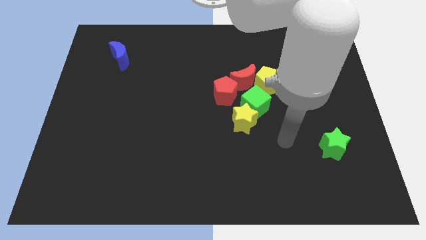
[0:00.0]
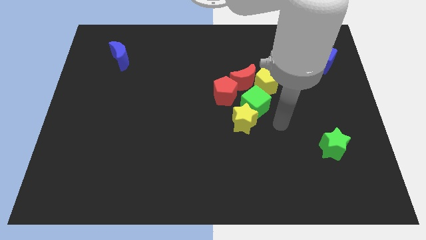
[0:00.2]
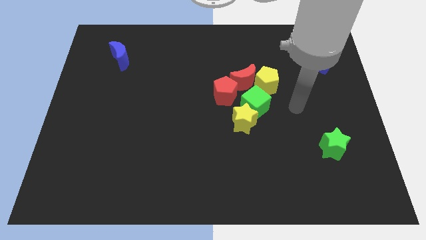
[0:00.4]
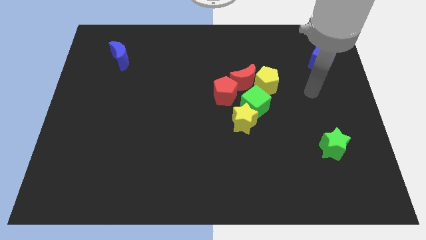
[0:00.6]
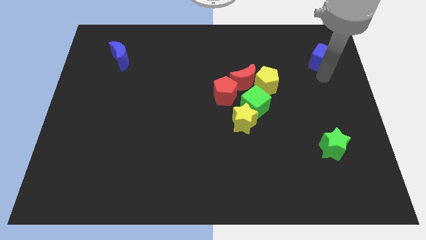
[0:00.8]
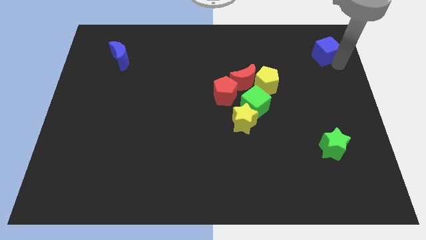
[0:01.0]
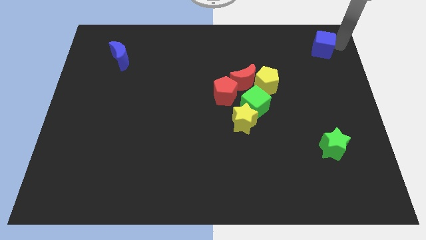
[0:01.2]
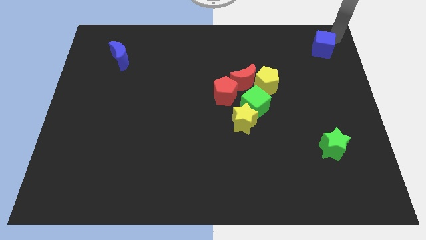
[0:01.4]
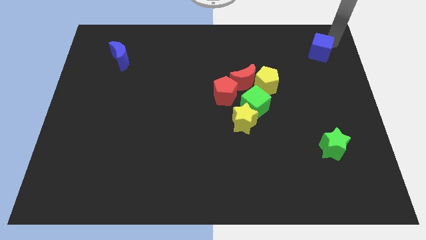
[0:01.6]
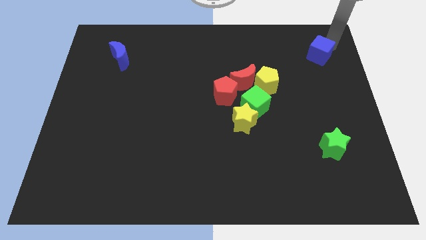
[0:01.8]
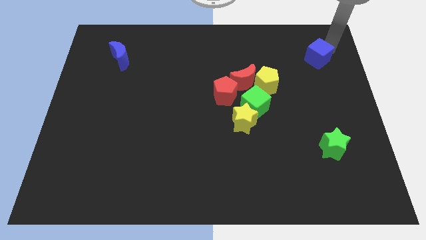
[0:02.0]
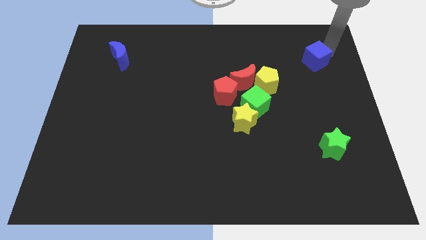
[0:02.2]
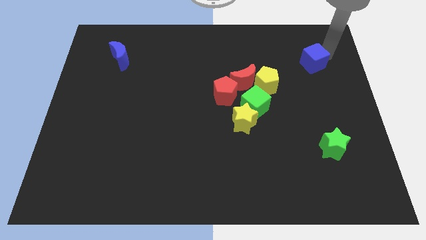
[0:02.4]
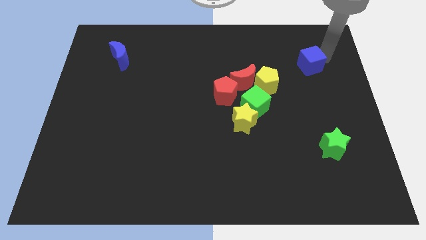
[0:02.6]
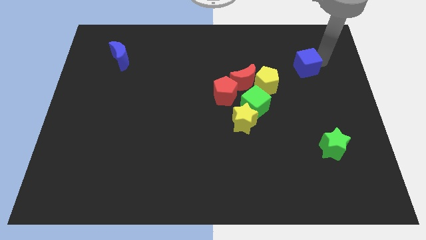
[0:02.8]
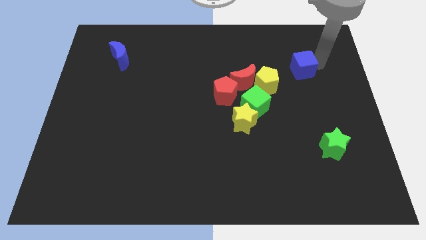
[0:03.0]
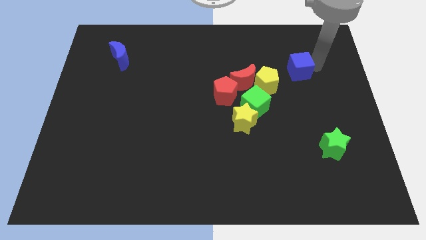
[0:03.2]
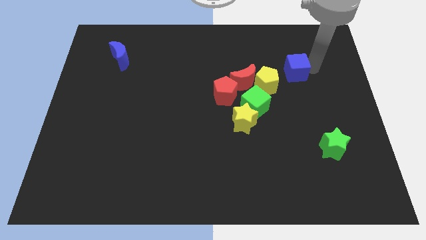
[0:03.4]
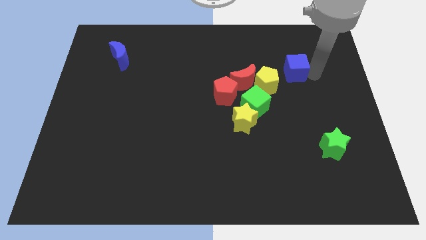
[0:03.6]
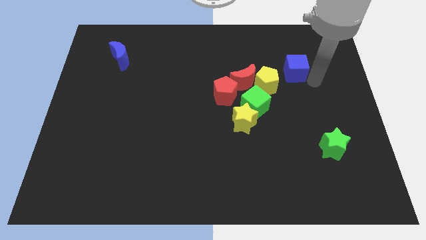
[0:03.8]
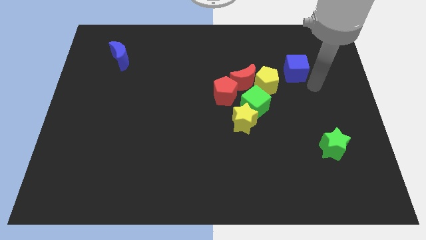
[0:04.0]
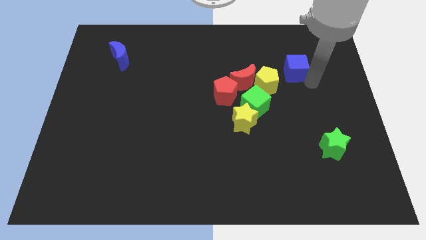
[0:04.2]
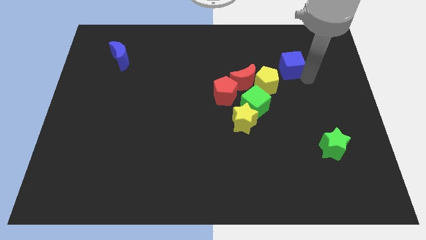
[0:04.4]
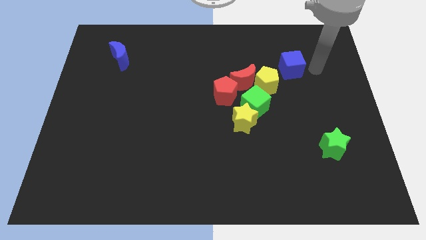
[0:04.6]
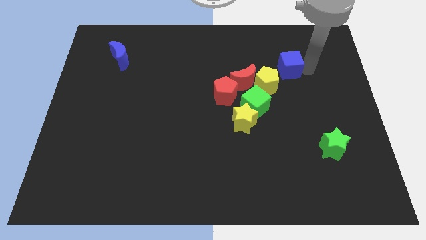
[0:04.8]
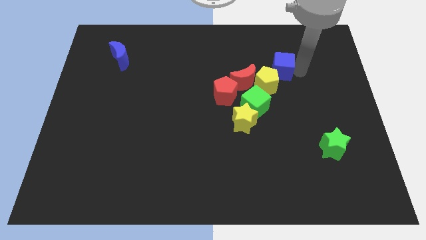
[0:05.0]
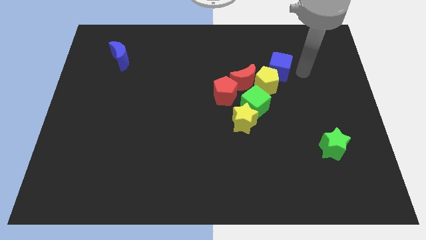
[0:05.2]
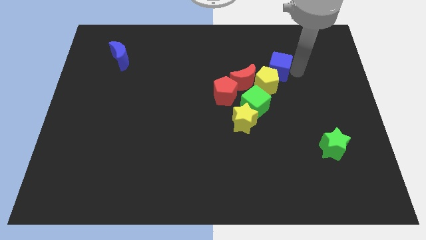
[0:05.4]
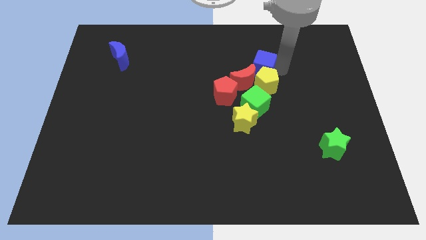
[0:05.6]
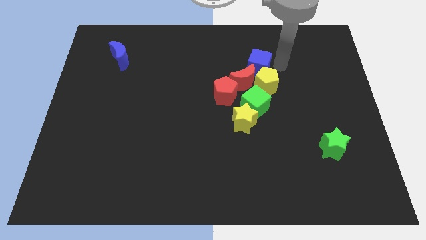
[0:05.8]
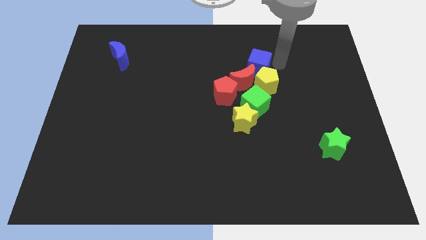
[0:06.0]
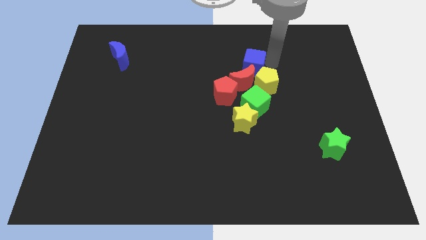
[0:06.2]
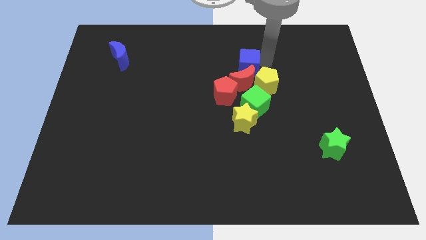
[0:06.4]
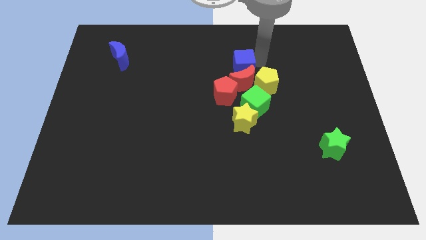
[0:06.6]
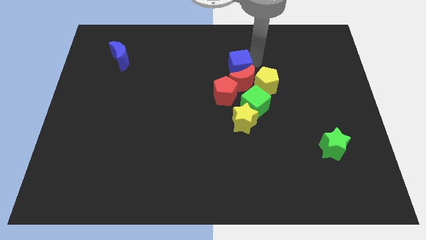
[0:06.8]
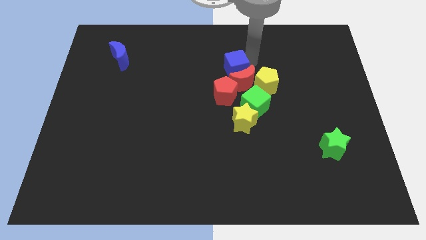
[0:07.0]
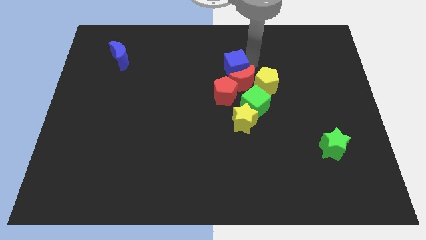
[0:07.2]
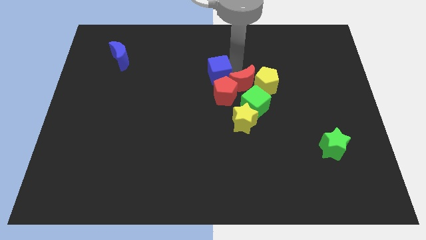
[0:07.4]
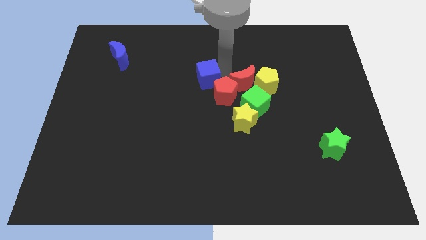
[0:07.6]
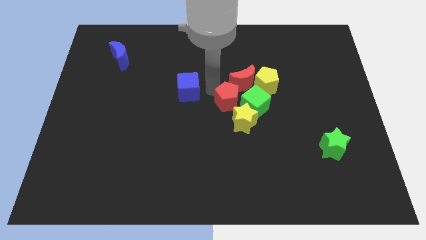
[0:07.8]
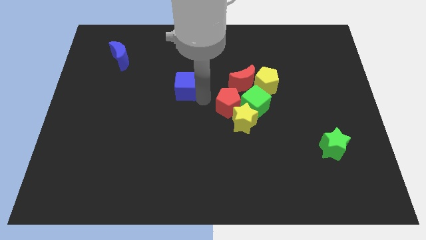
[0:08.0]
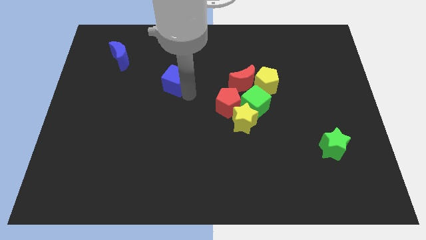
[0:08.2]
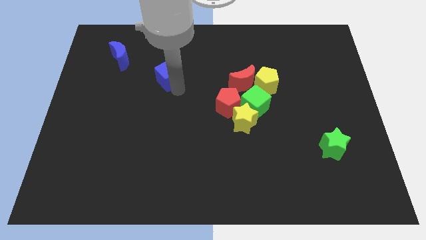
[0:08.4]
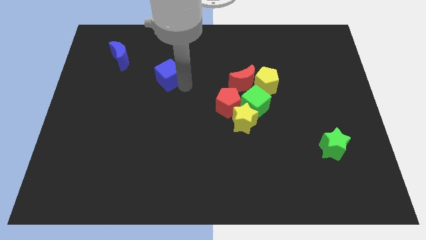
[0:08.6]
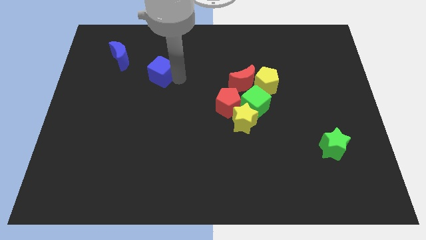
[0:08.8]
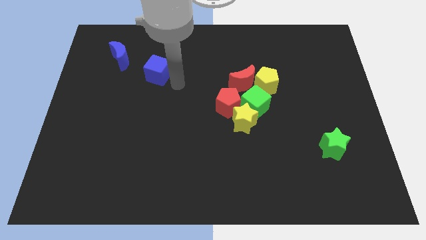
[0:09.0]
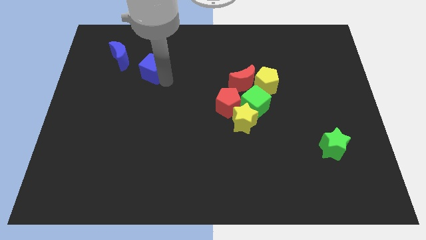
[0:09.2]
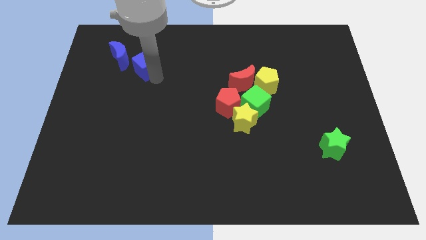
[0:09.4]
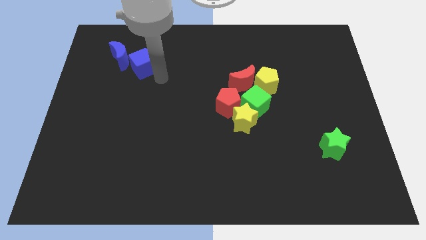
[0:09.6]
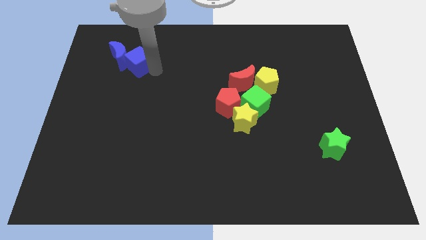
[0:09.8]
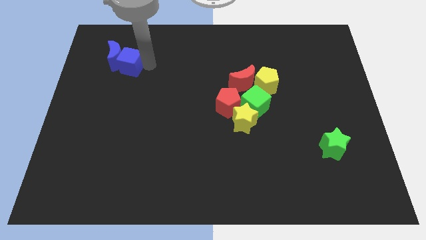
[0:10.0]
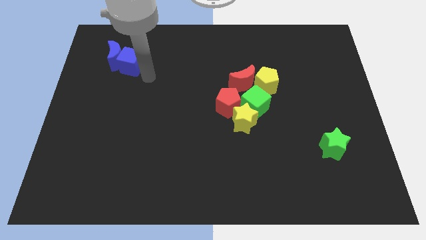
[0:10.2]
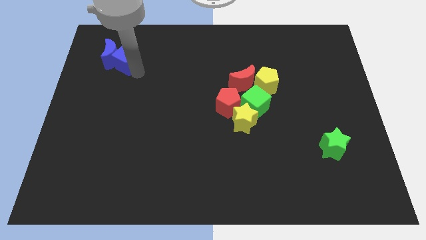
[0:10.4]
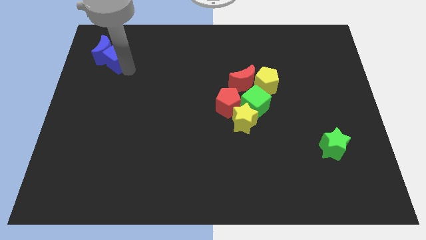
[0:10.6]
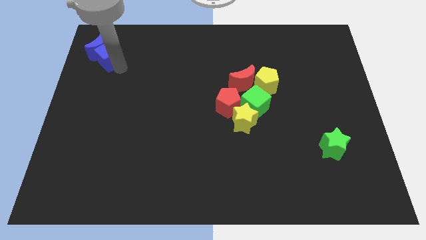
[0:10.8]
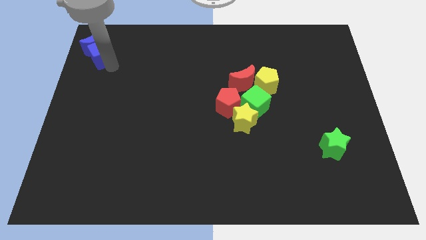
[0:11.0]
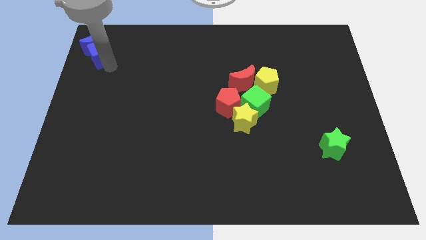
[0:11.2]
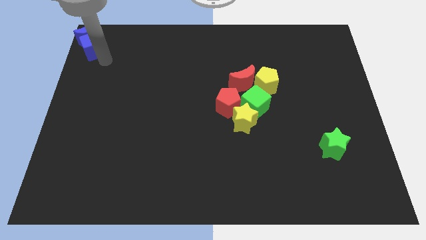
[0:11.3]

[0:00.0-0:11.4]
push the blue cube to the top left
